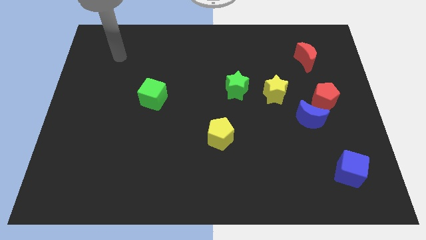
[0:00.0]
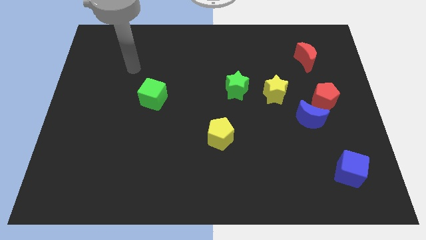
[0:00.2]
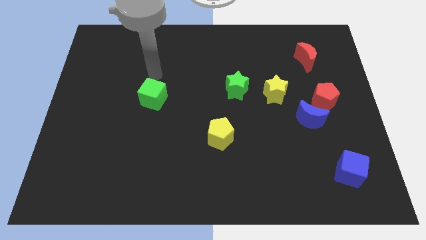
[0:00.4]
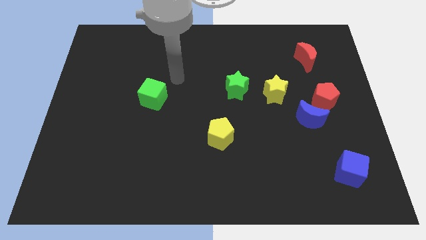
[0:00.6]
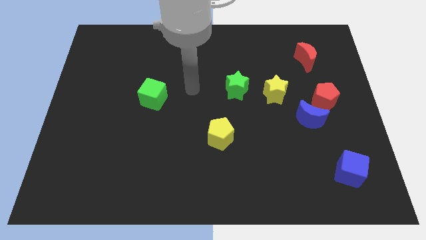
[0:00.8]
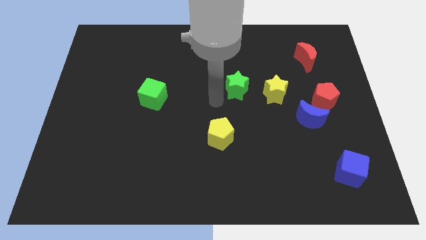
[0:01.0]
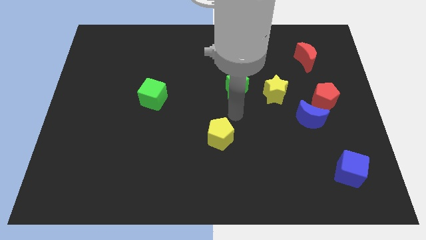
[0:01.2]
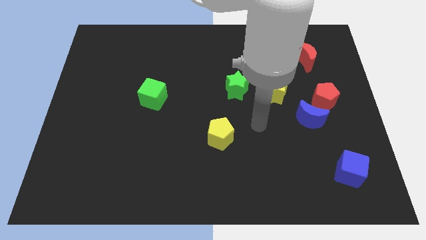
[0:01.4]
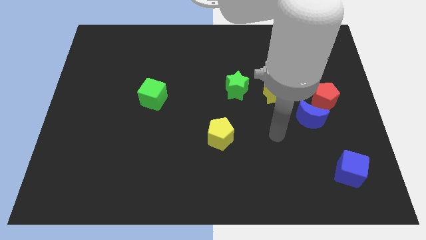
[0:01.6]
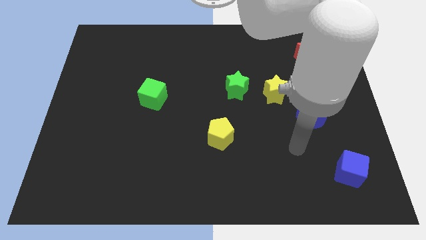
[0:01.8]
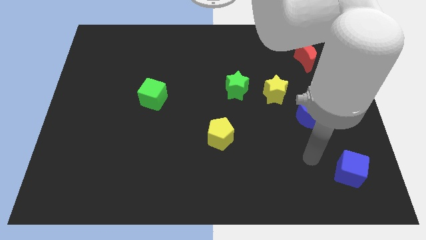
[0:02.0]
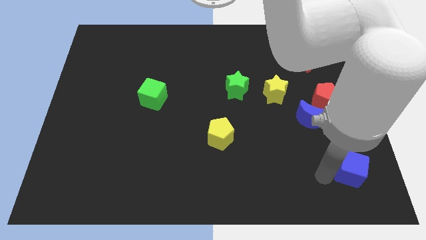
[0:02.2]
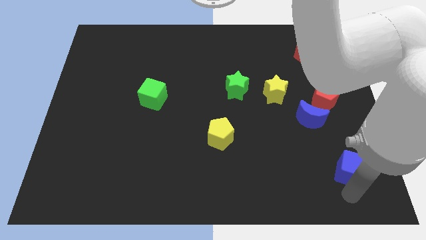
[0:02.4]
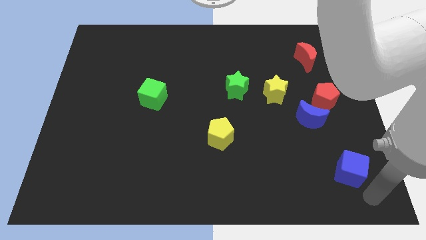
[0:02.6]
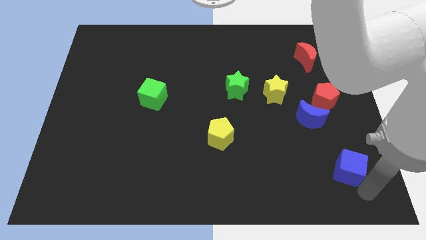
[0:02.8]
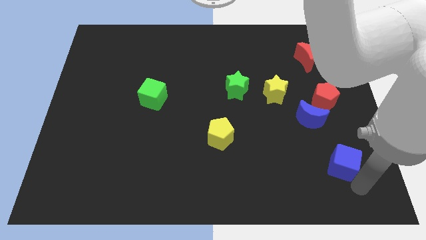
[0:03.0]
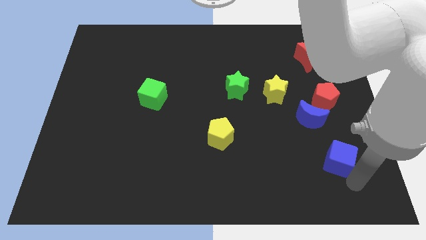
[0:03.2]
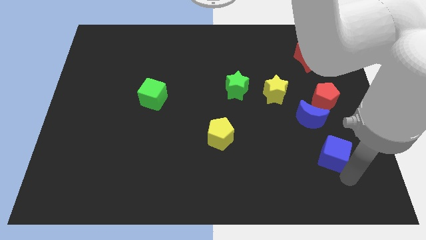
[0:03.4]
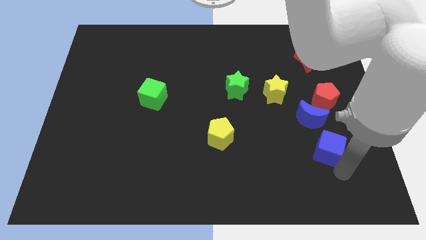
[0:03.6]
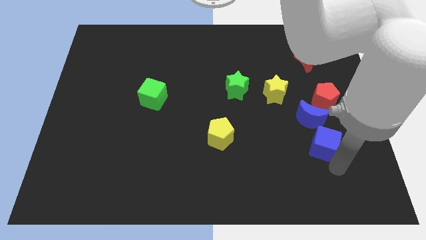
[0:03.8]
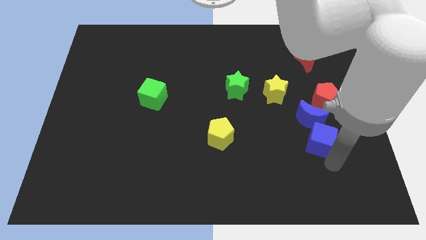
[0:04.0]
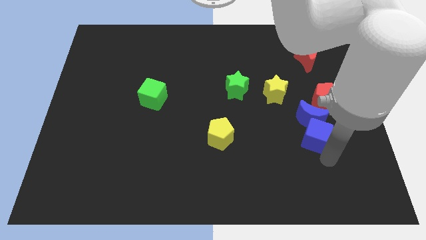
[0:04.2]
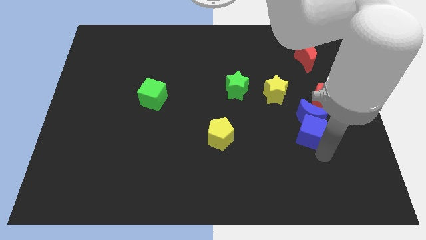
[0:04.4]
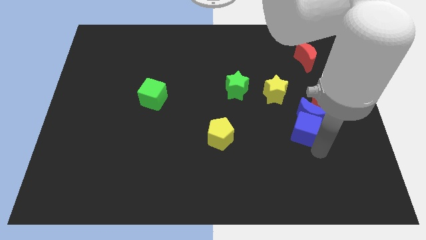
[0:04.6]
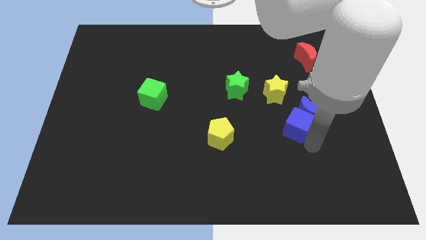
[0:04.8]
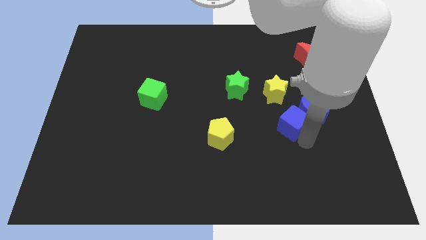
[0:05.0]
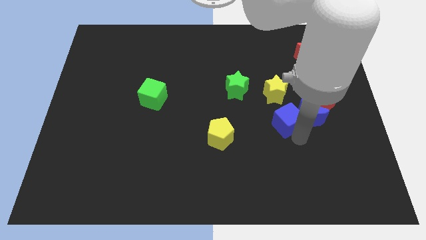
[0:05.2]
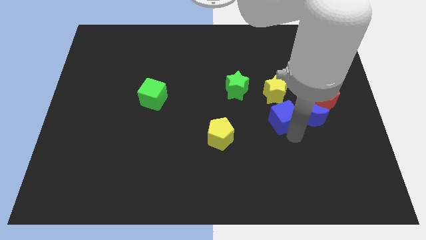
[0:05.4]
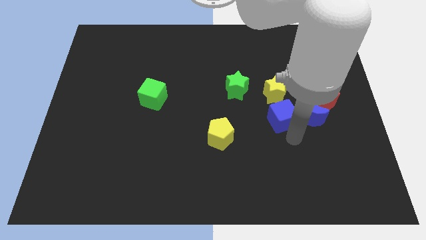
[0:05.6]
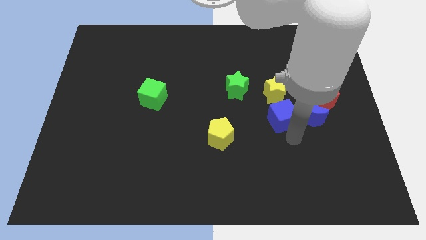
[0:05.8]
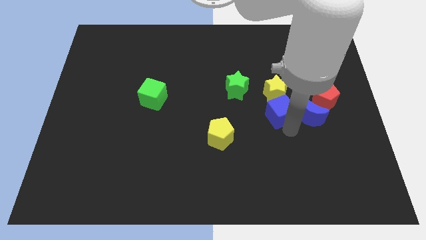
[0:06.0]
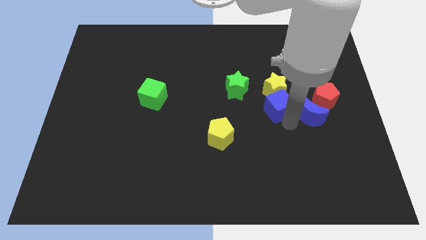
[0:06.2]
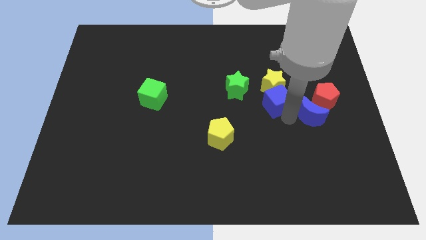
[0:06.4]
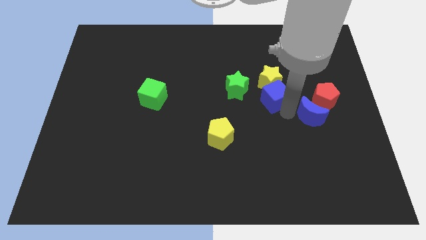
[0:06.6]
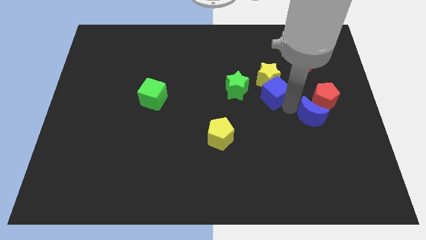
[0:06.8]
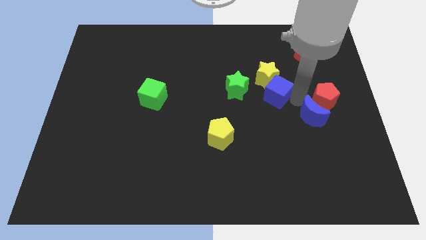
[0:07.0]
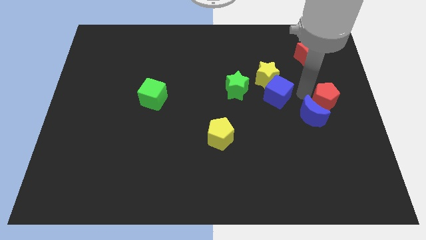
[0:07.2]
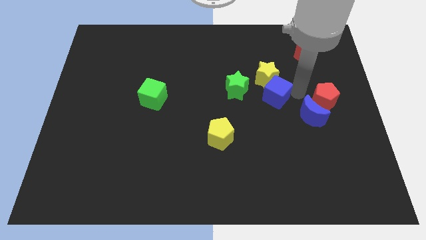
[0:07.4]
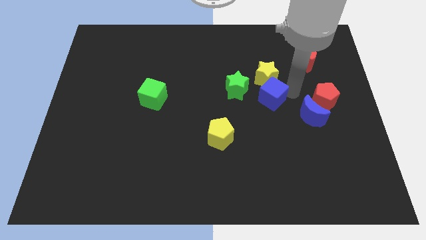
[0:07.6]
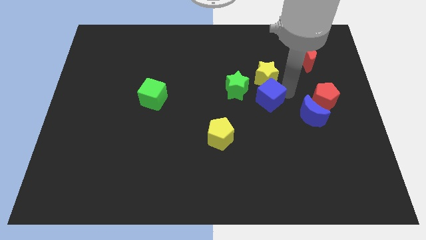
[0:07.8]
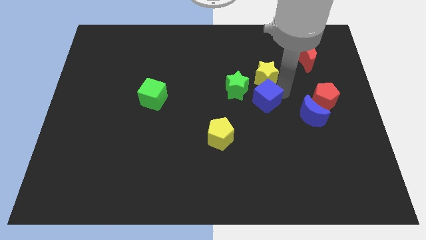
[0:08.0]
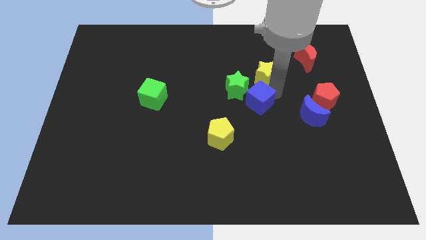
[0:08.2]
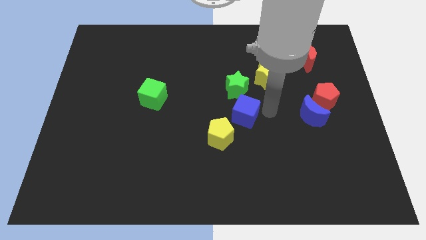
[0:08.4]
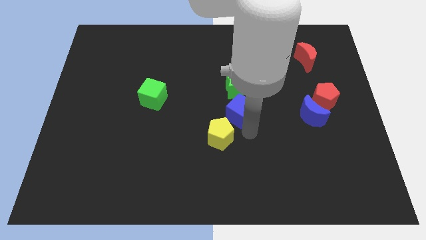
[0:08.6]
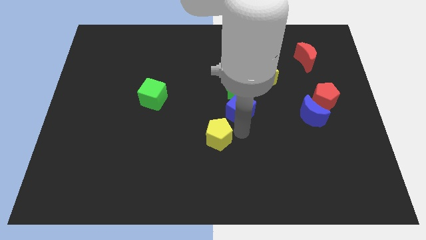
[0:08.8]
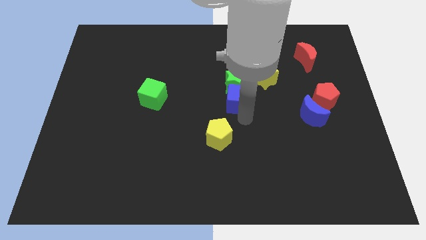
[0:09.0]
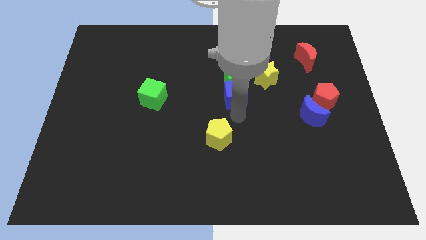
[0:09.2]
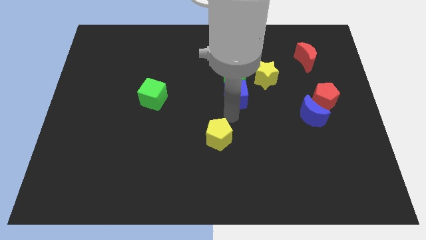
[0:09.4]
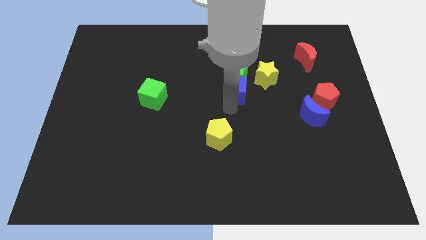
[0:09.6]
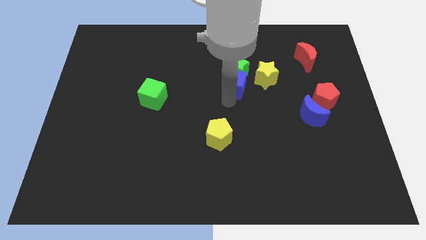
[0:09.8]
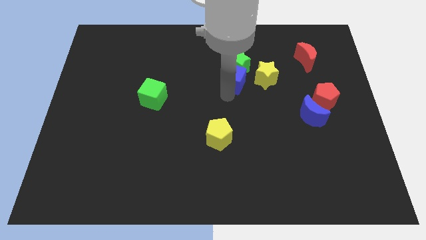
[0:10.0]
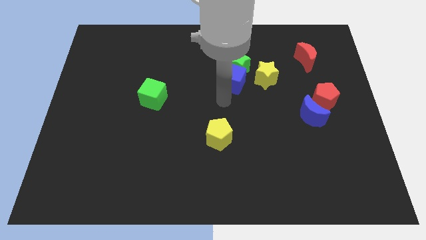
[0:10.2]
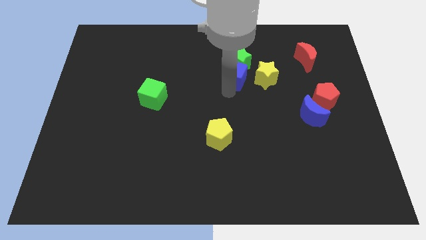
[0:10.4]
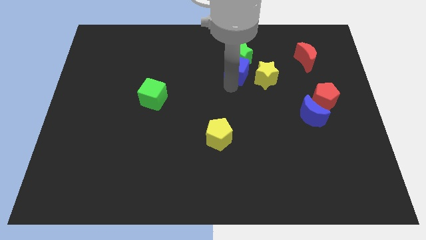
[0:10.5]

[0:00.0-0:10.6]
put the blue cube to the top left of the yellow star

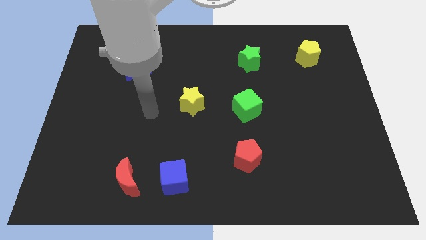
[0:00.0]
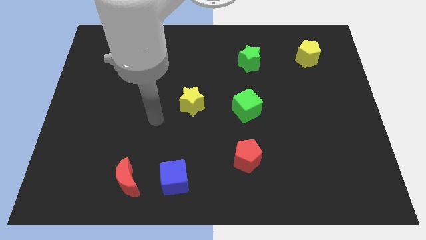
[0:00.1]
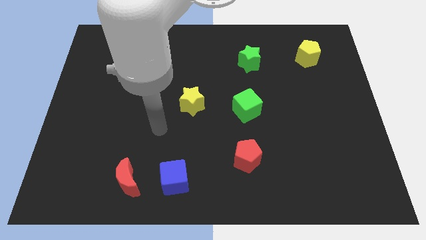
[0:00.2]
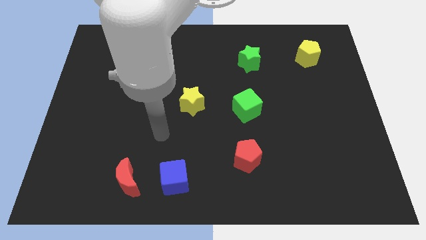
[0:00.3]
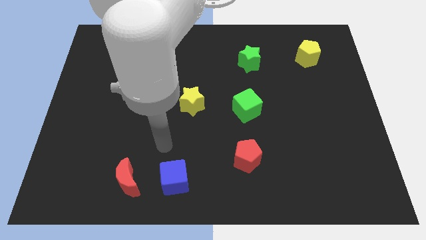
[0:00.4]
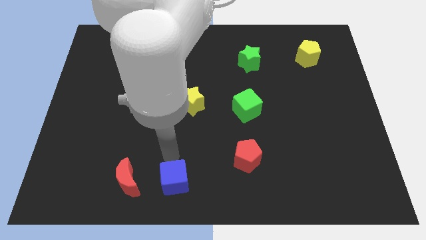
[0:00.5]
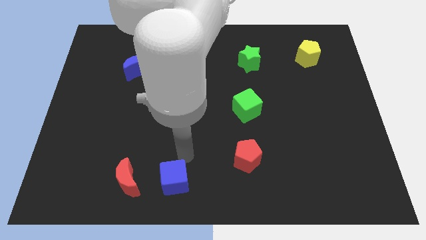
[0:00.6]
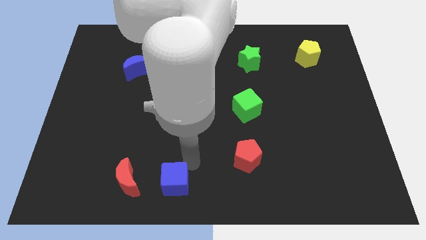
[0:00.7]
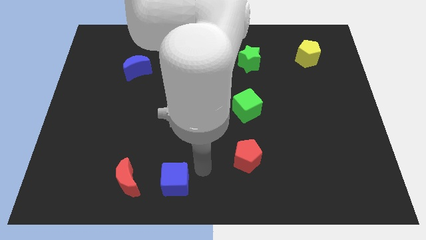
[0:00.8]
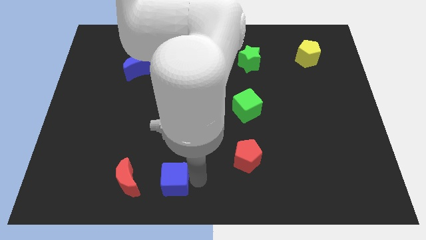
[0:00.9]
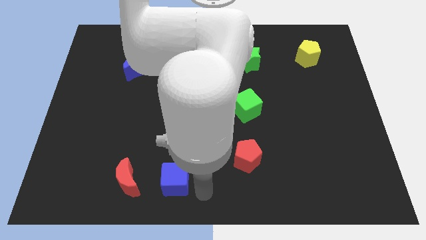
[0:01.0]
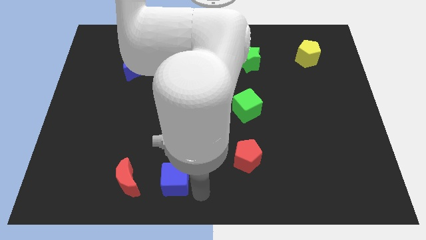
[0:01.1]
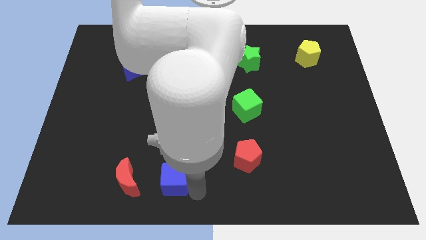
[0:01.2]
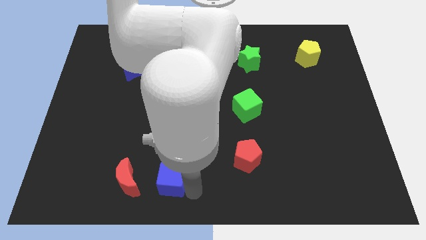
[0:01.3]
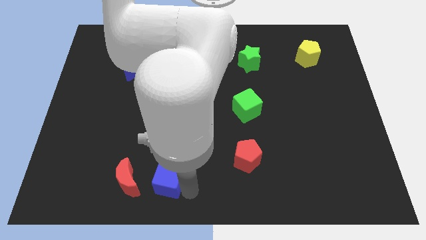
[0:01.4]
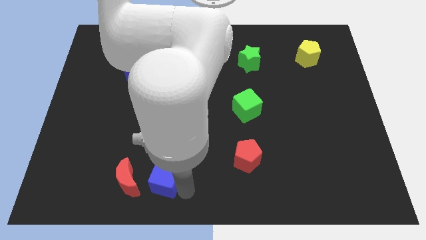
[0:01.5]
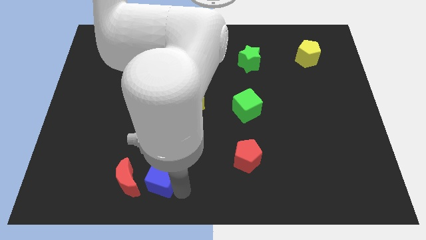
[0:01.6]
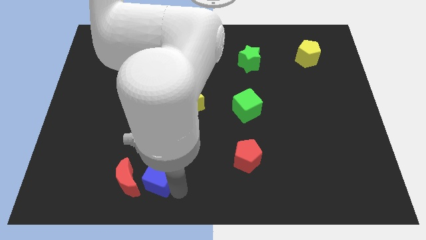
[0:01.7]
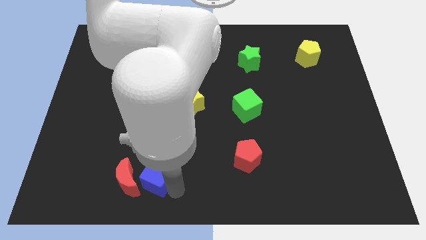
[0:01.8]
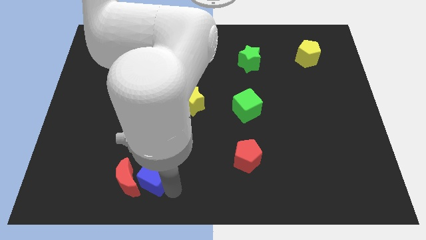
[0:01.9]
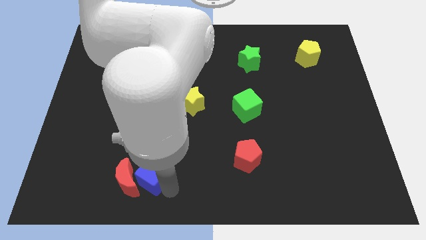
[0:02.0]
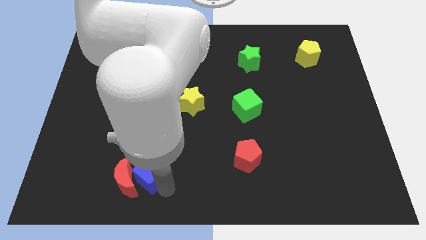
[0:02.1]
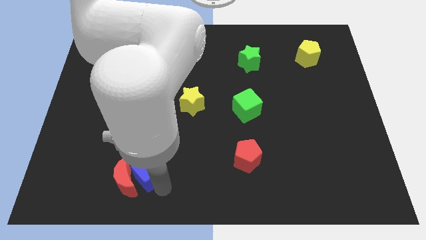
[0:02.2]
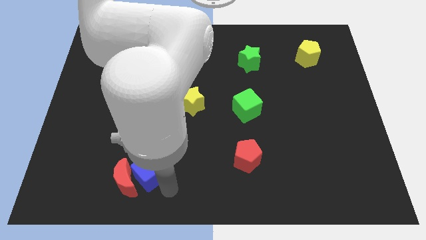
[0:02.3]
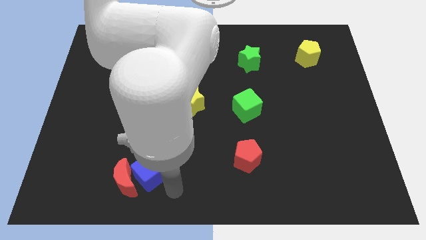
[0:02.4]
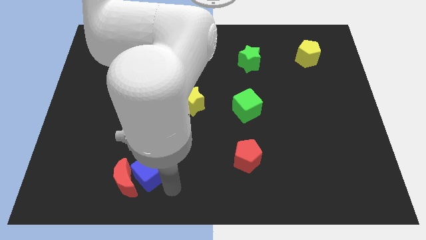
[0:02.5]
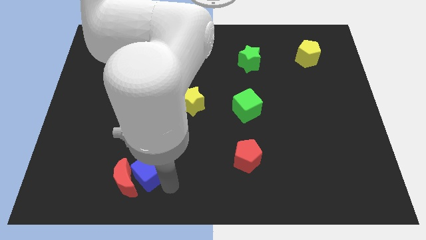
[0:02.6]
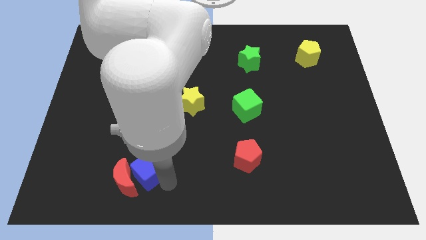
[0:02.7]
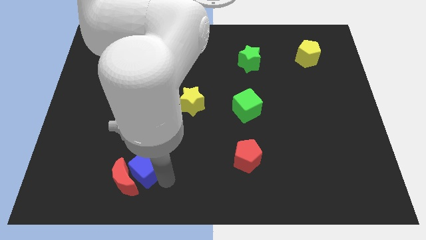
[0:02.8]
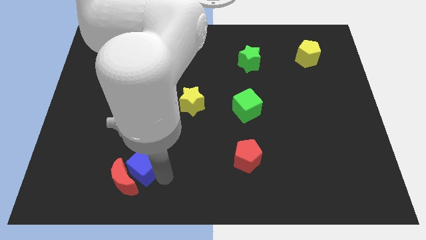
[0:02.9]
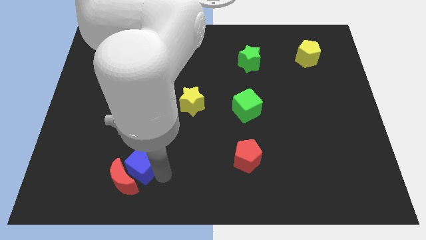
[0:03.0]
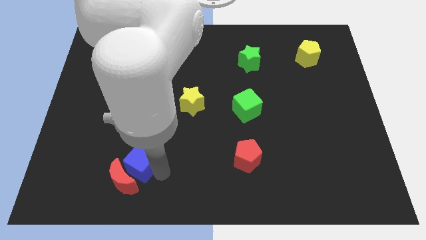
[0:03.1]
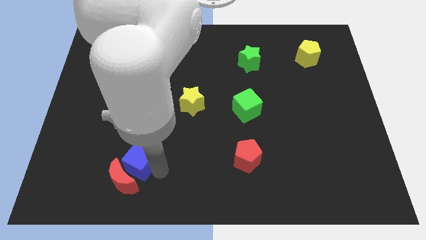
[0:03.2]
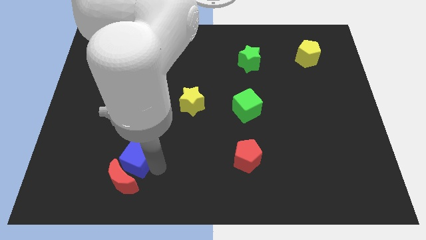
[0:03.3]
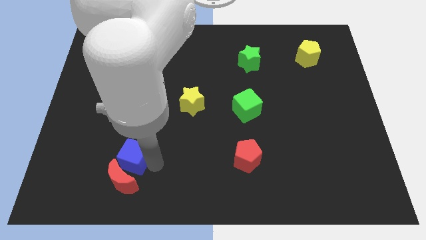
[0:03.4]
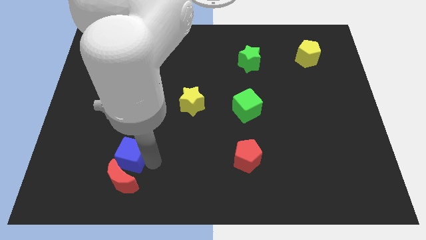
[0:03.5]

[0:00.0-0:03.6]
move the blue cube to the top left side of the red moon
